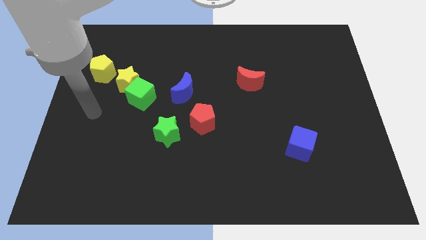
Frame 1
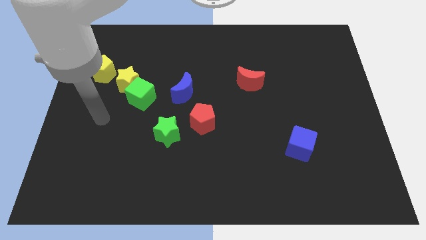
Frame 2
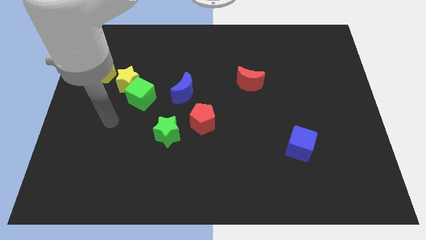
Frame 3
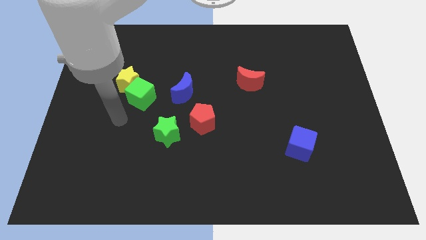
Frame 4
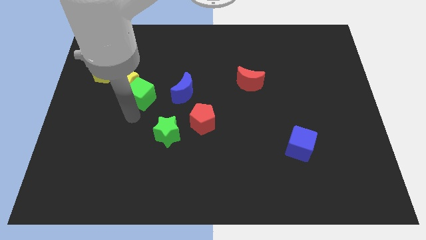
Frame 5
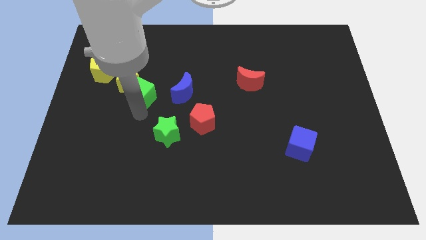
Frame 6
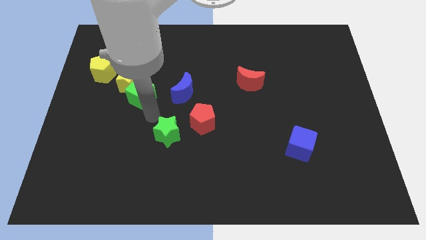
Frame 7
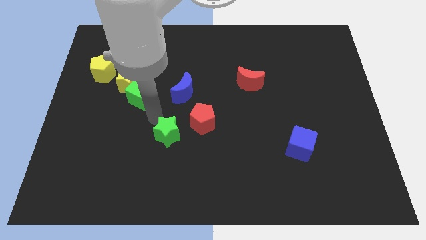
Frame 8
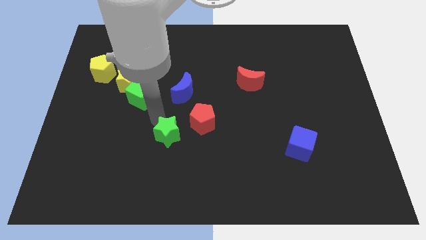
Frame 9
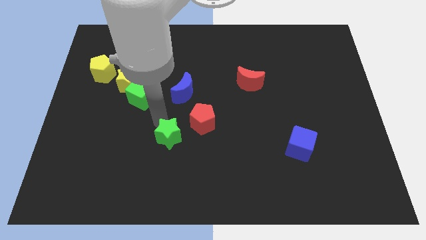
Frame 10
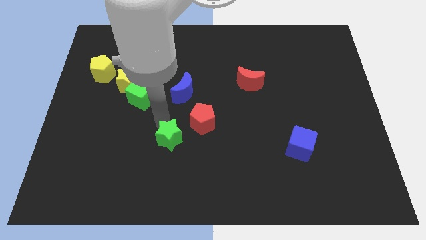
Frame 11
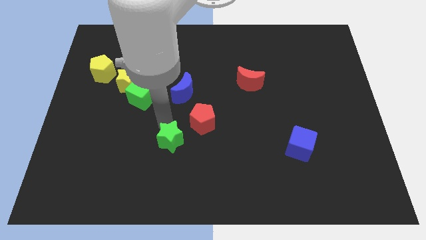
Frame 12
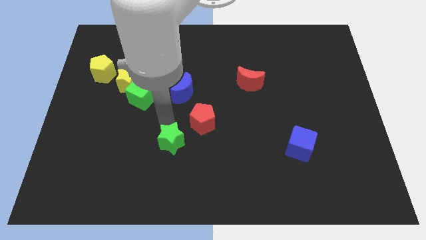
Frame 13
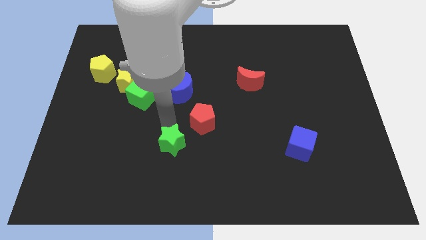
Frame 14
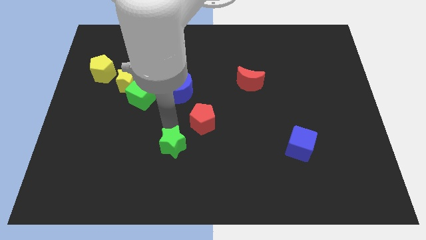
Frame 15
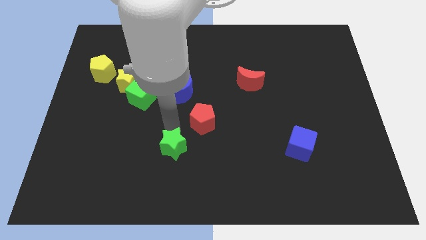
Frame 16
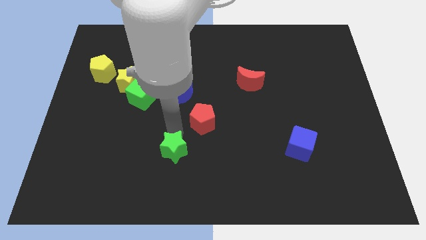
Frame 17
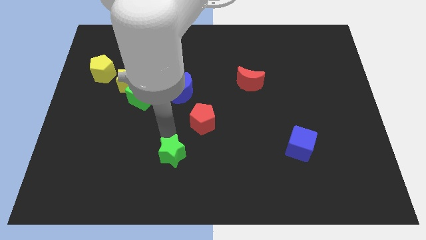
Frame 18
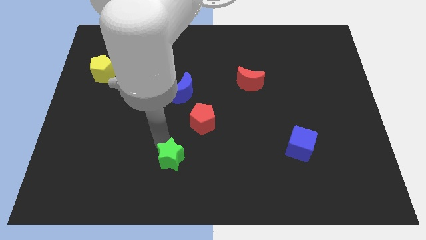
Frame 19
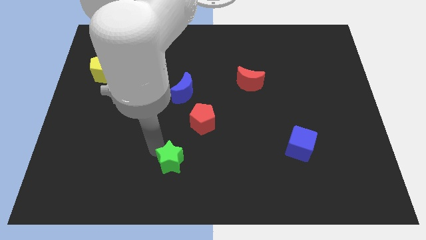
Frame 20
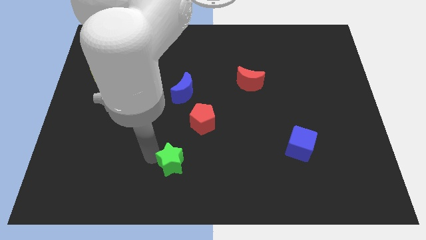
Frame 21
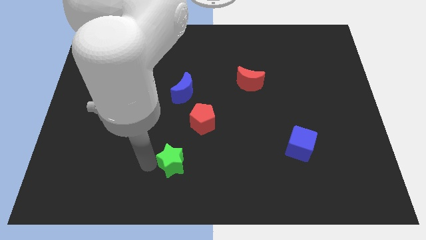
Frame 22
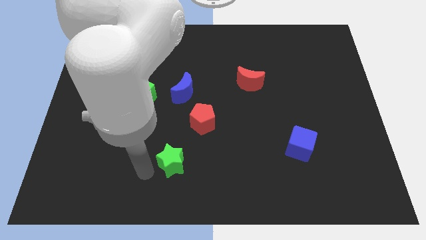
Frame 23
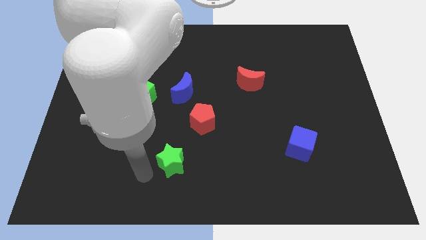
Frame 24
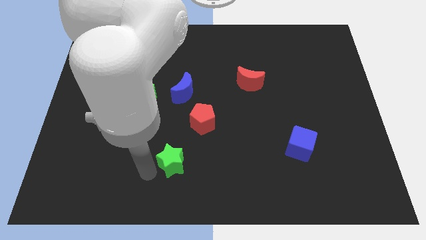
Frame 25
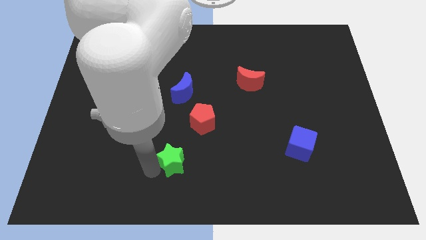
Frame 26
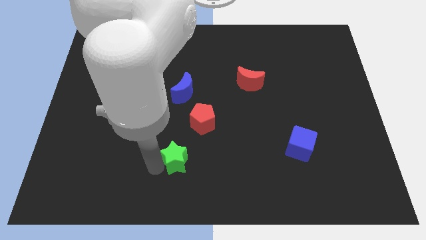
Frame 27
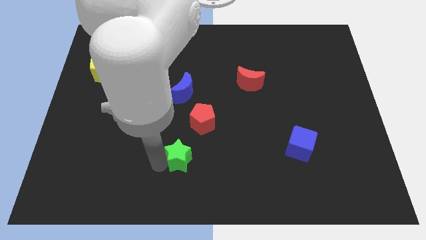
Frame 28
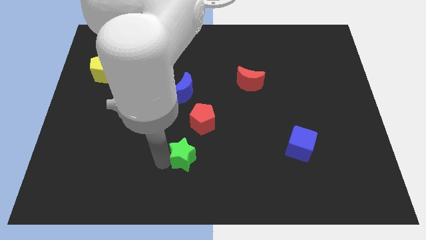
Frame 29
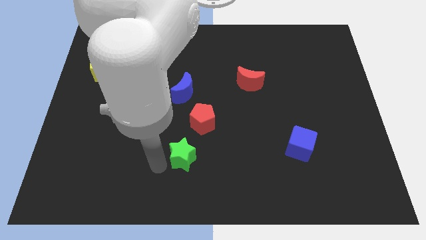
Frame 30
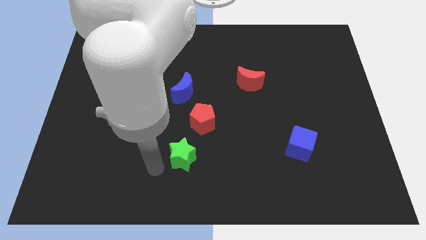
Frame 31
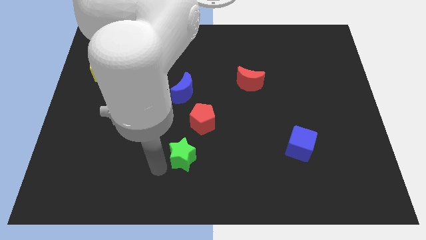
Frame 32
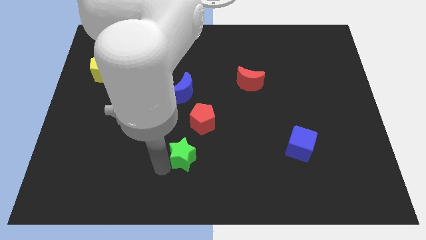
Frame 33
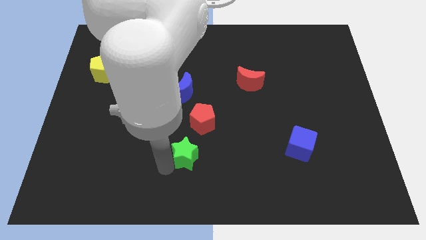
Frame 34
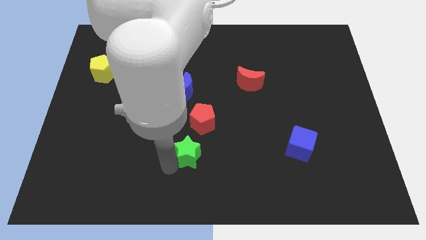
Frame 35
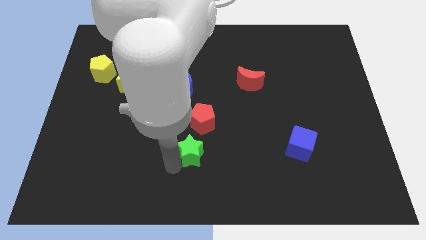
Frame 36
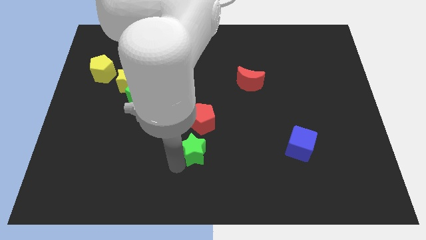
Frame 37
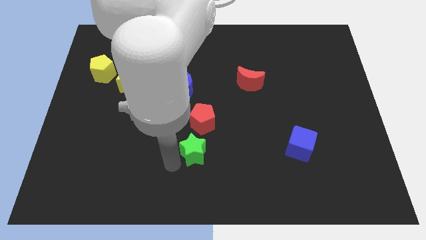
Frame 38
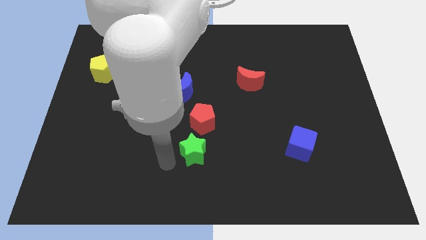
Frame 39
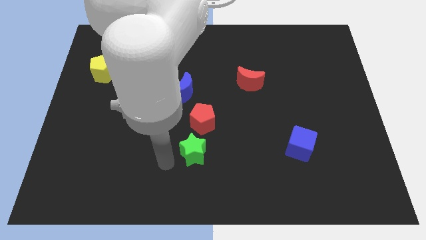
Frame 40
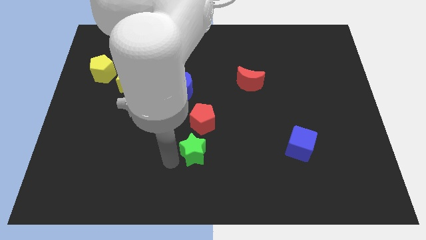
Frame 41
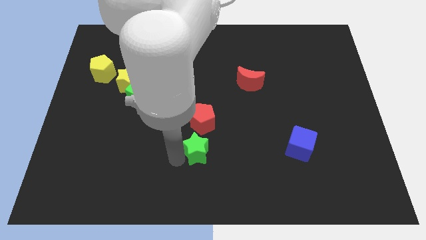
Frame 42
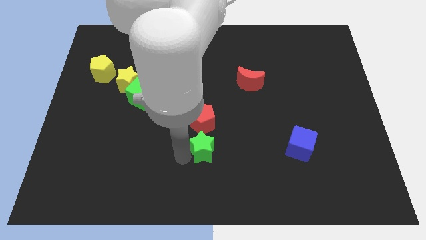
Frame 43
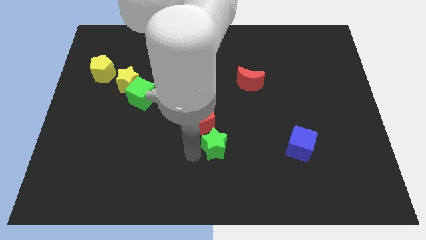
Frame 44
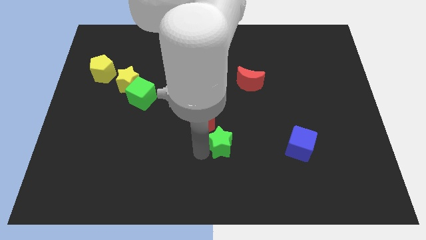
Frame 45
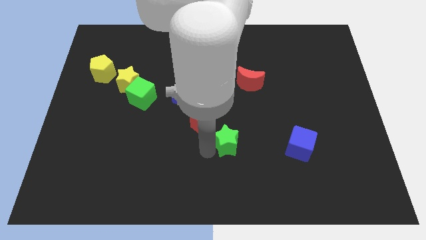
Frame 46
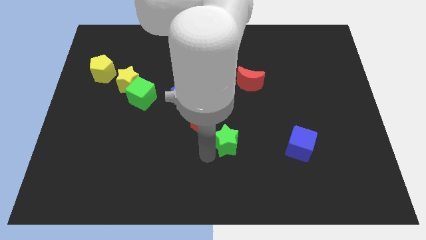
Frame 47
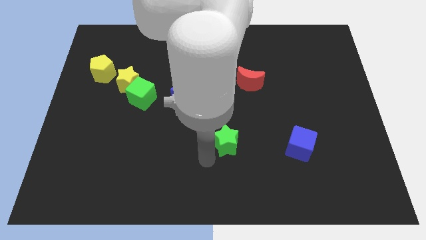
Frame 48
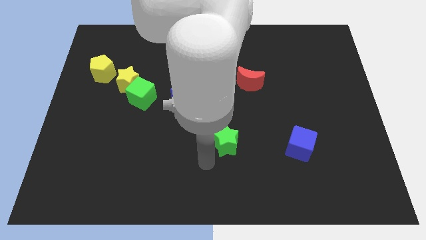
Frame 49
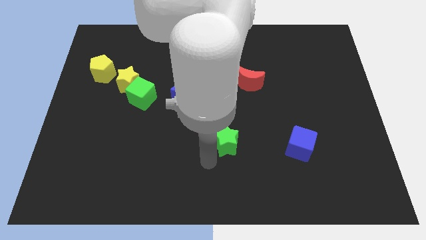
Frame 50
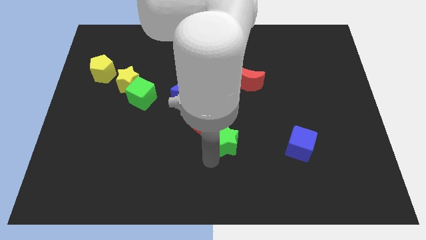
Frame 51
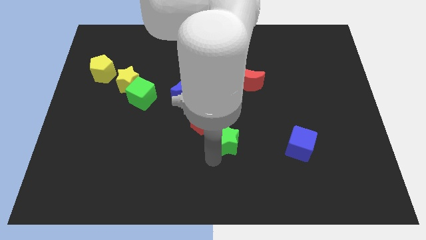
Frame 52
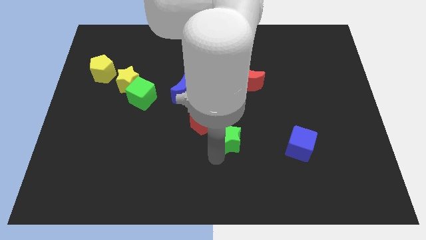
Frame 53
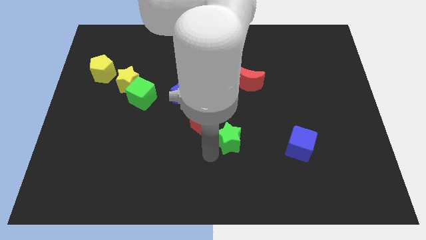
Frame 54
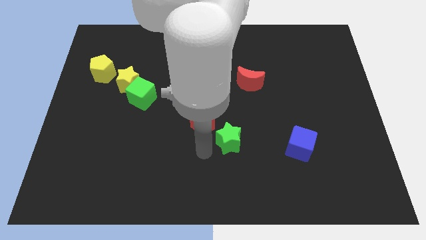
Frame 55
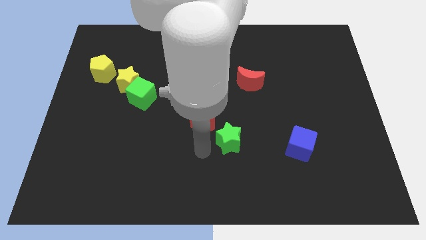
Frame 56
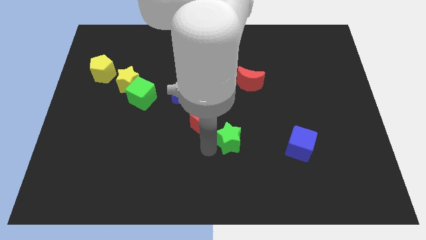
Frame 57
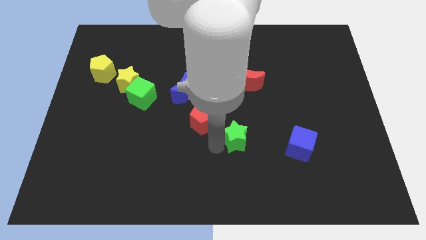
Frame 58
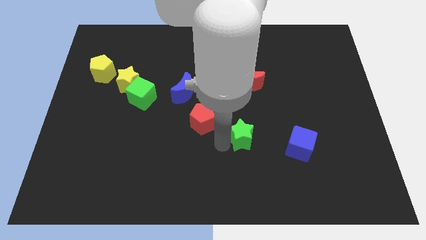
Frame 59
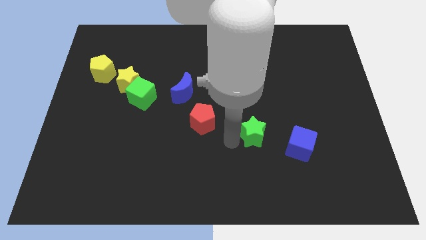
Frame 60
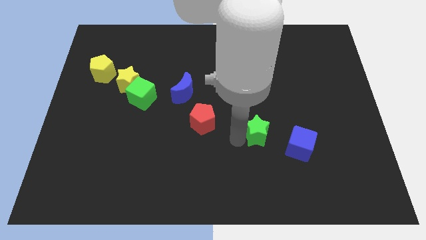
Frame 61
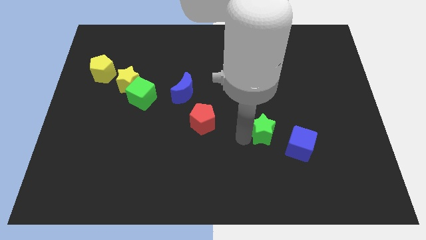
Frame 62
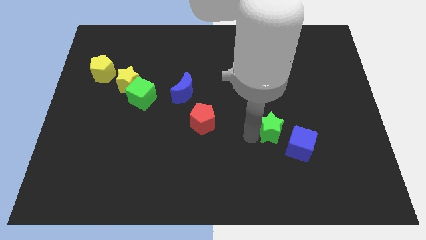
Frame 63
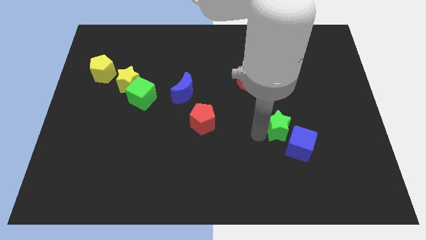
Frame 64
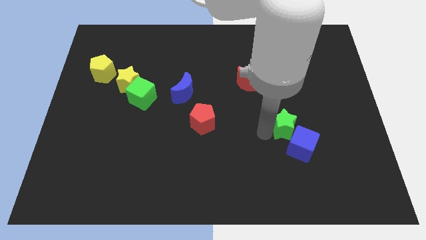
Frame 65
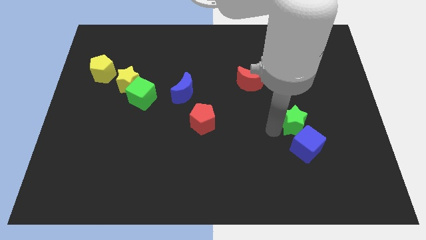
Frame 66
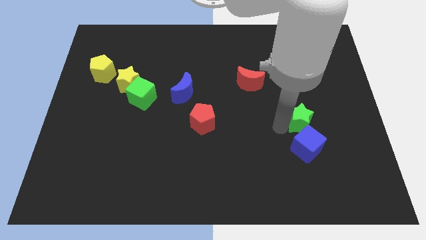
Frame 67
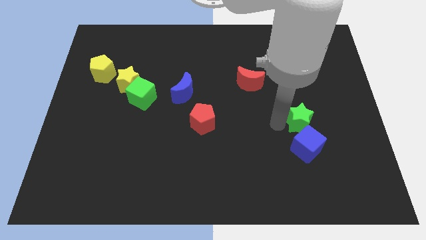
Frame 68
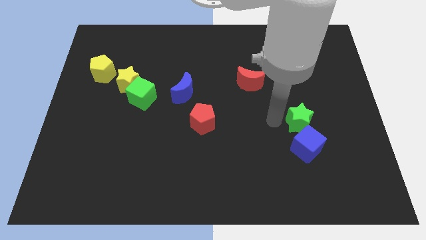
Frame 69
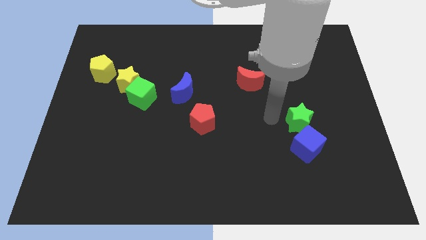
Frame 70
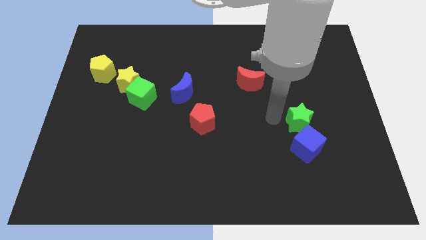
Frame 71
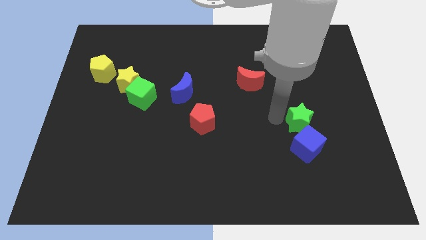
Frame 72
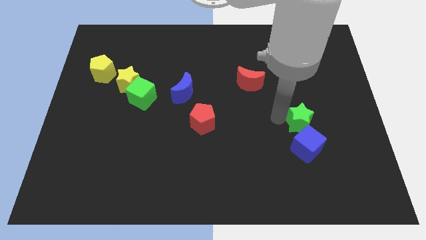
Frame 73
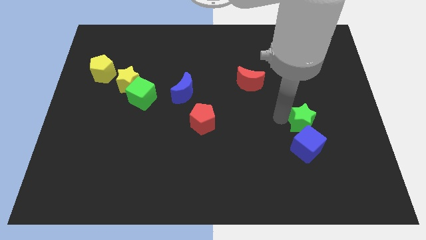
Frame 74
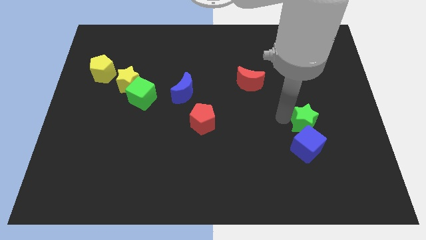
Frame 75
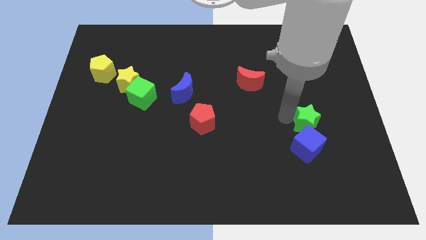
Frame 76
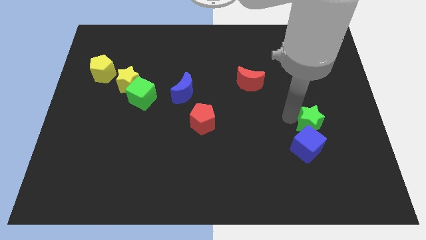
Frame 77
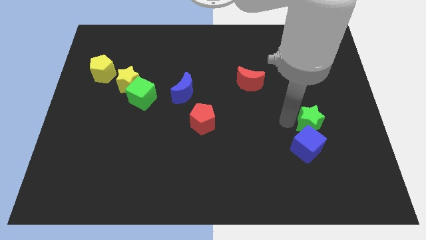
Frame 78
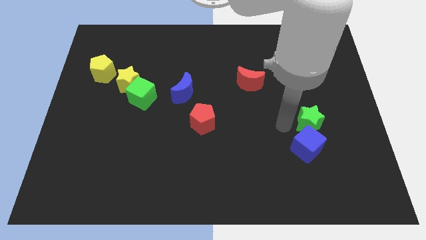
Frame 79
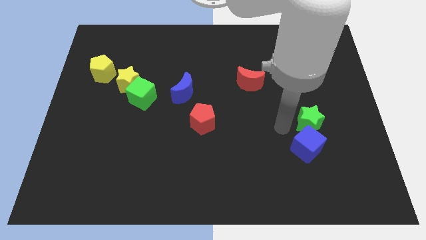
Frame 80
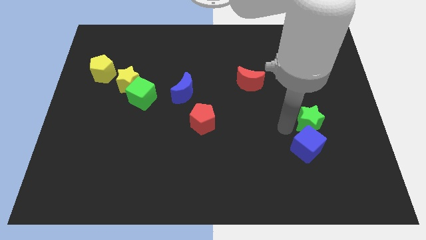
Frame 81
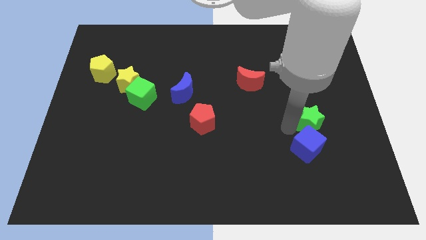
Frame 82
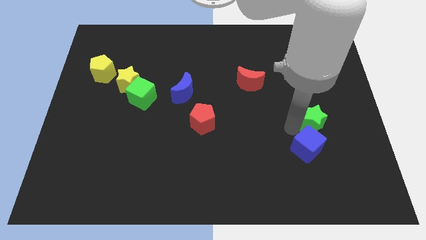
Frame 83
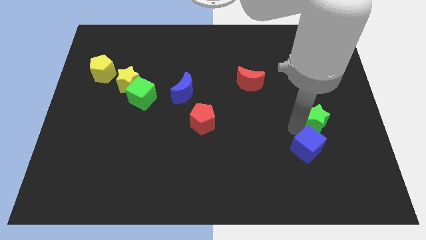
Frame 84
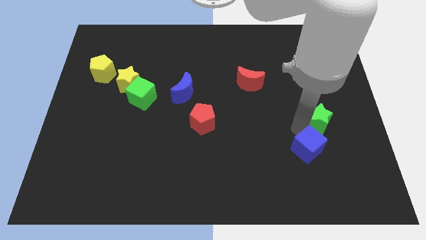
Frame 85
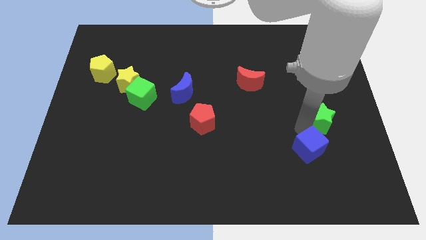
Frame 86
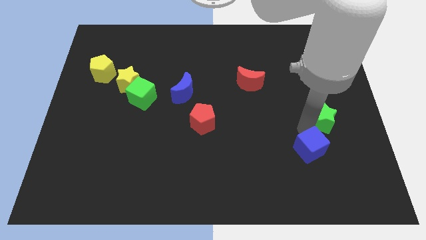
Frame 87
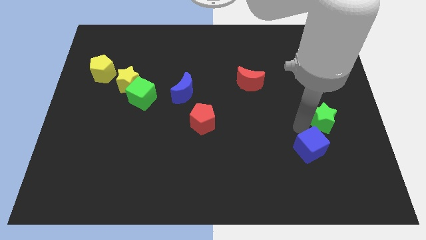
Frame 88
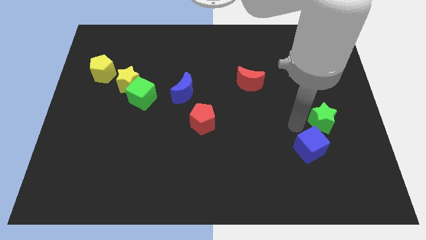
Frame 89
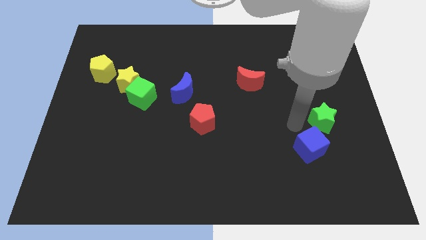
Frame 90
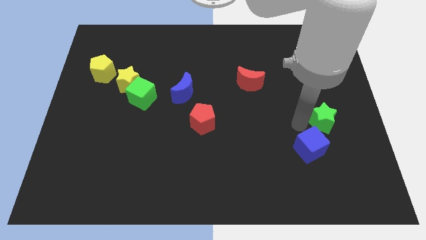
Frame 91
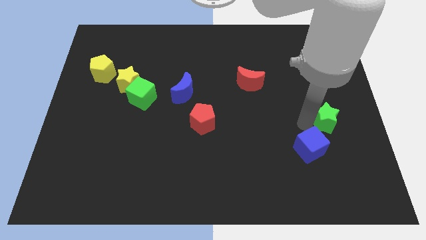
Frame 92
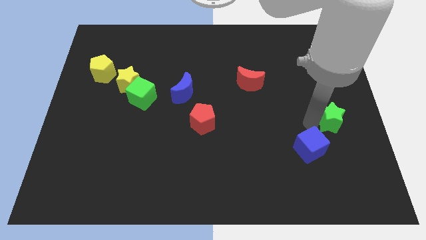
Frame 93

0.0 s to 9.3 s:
slide the green star to the right side of the board
